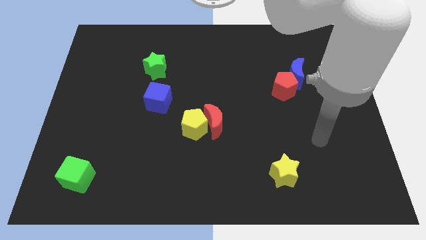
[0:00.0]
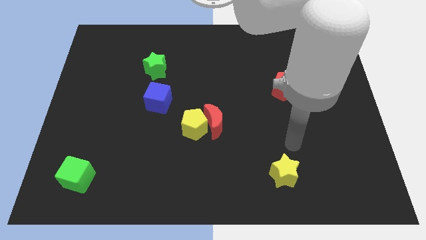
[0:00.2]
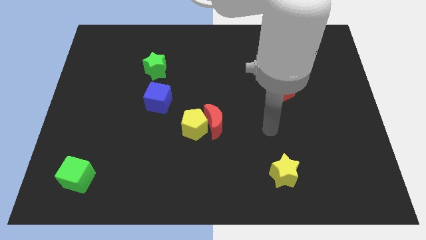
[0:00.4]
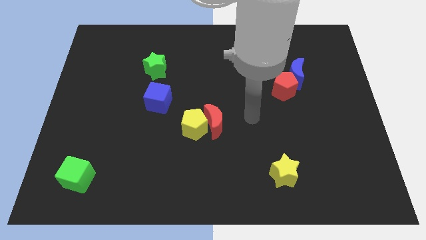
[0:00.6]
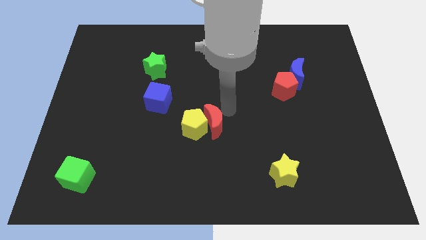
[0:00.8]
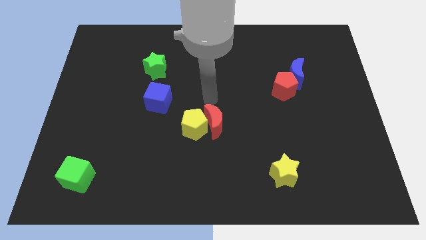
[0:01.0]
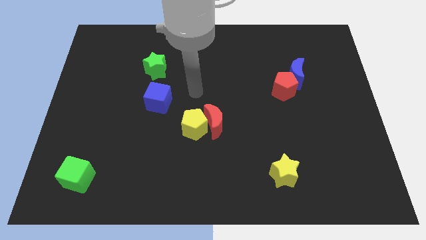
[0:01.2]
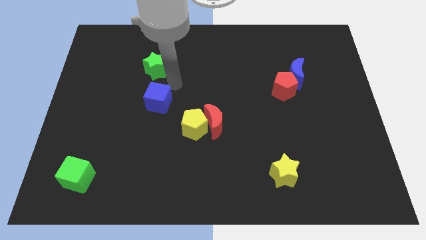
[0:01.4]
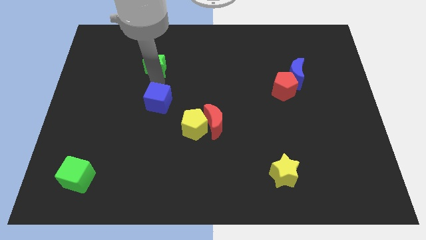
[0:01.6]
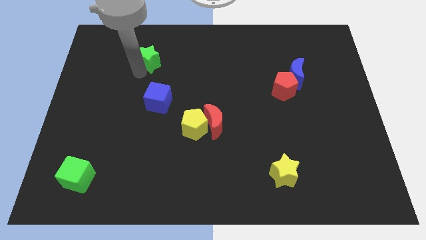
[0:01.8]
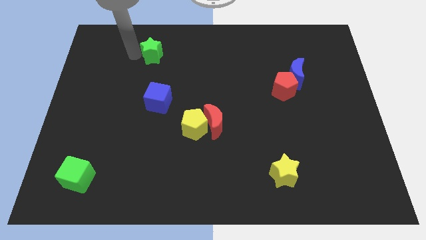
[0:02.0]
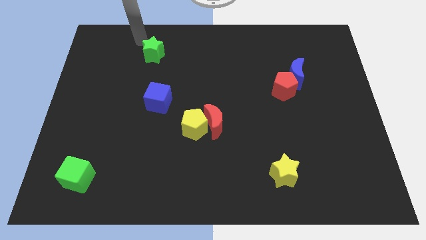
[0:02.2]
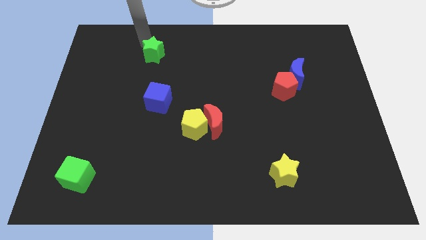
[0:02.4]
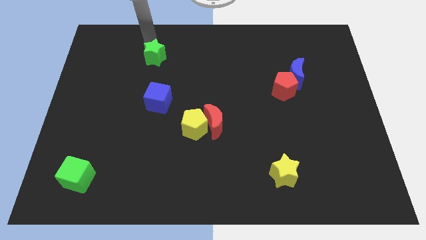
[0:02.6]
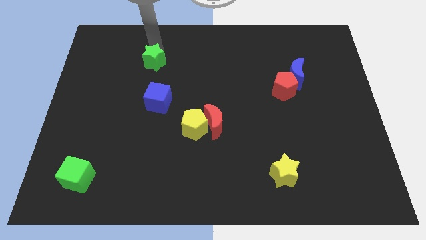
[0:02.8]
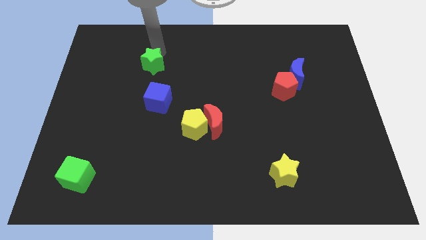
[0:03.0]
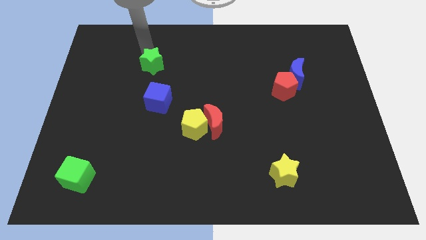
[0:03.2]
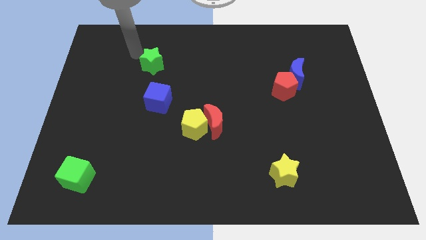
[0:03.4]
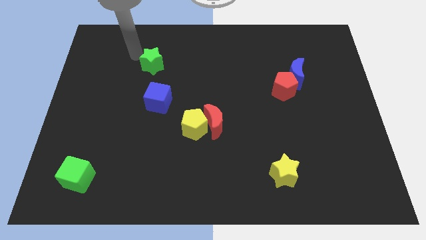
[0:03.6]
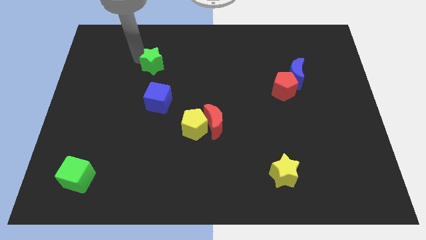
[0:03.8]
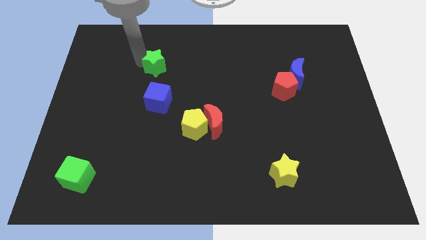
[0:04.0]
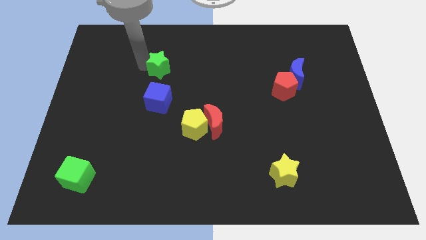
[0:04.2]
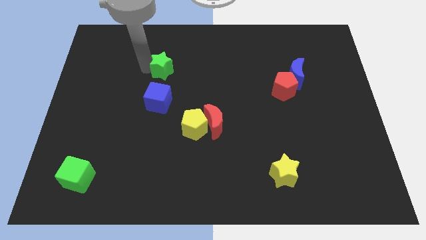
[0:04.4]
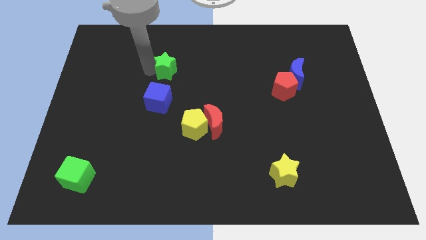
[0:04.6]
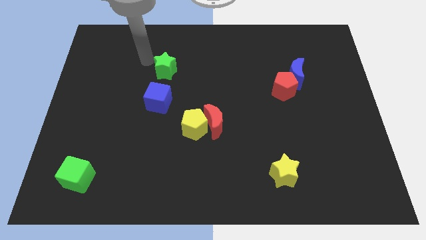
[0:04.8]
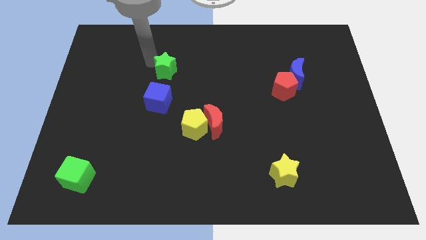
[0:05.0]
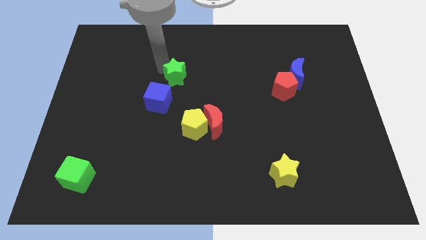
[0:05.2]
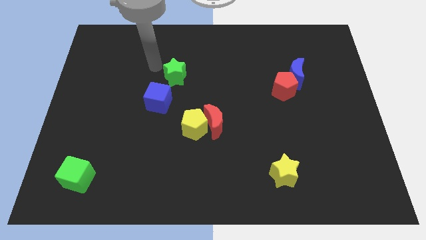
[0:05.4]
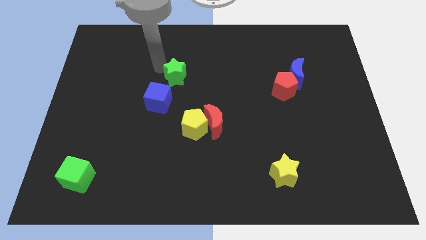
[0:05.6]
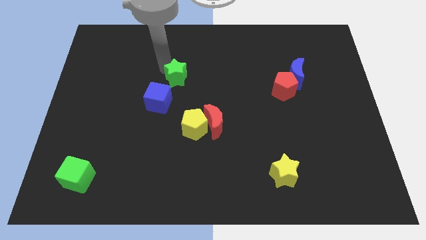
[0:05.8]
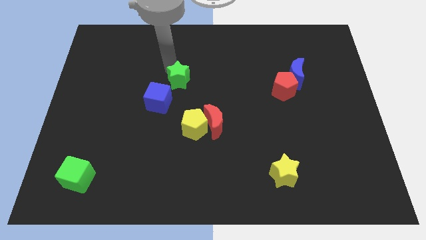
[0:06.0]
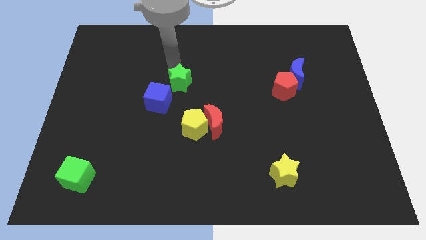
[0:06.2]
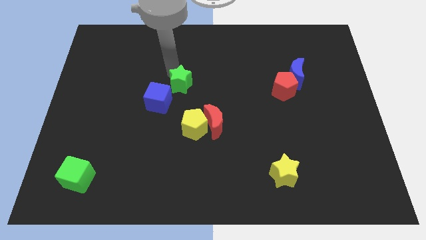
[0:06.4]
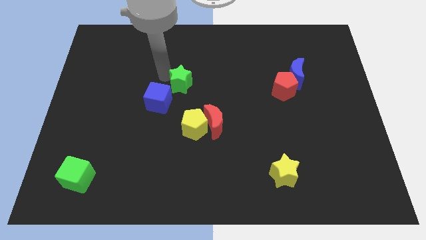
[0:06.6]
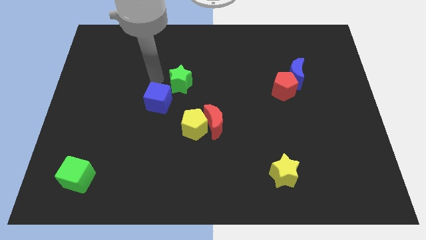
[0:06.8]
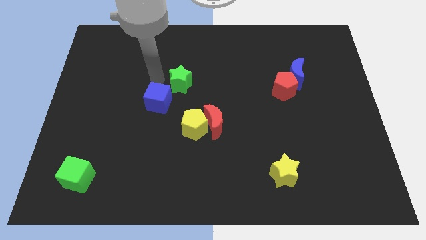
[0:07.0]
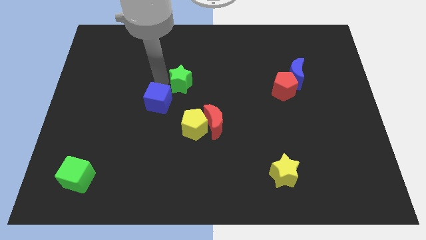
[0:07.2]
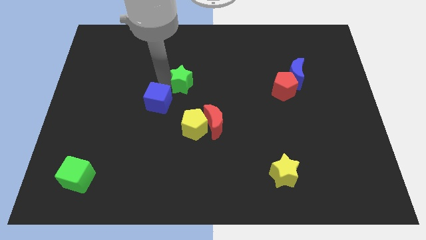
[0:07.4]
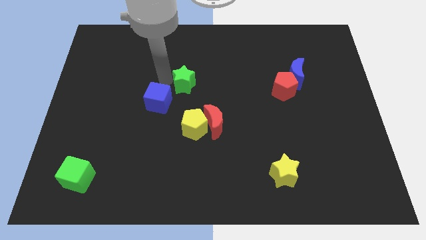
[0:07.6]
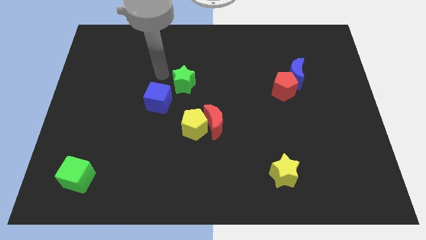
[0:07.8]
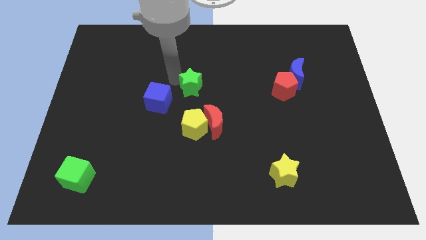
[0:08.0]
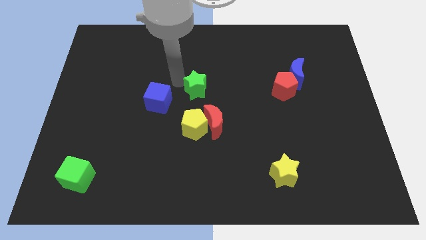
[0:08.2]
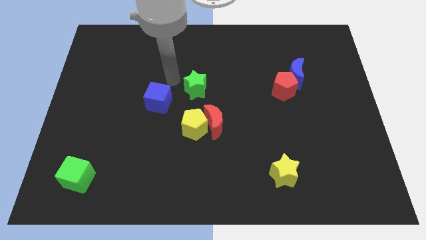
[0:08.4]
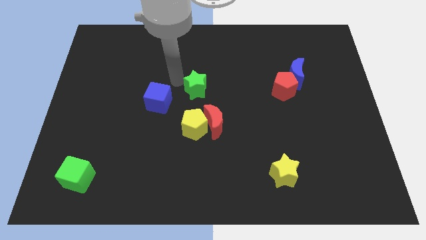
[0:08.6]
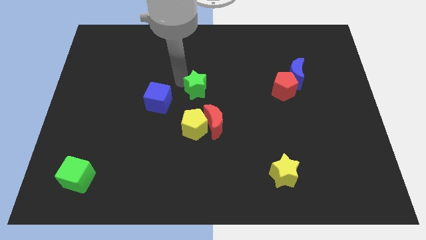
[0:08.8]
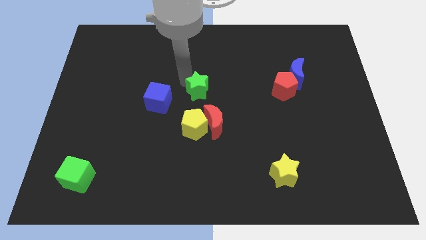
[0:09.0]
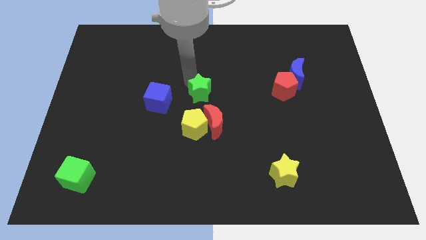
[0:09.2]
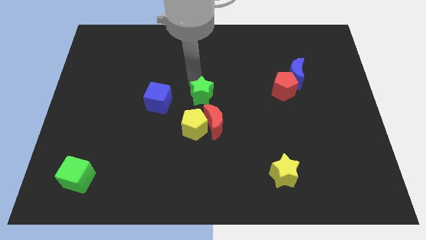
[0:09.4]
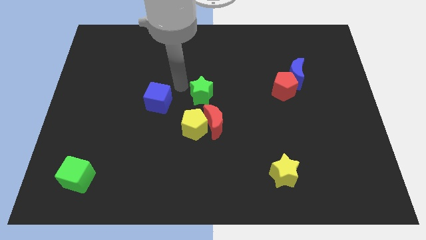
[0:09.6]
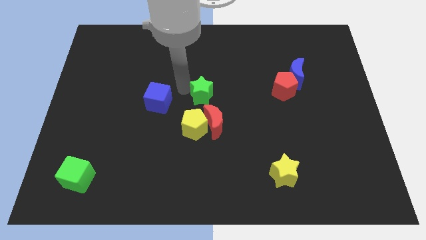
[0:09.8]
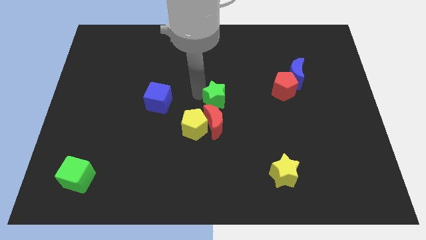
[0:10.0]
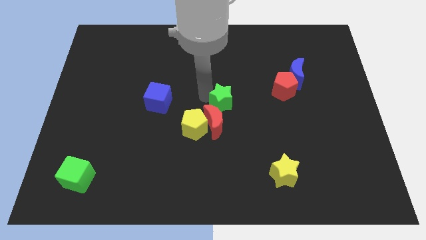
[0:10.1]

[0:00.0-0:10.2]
slide the green star to the top right of the red moon

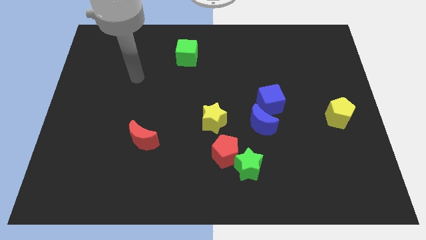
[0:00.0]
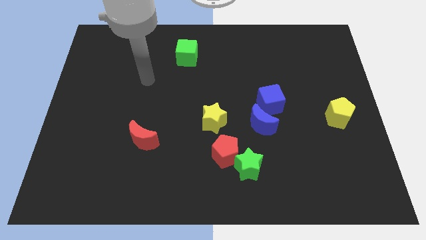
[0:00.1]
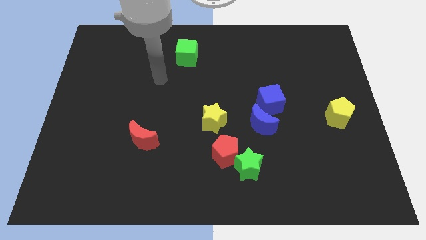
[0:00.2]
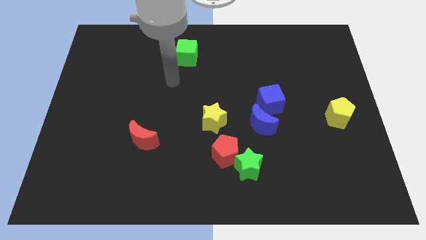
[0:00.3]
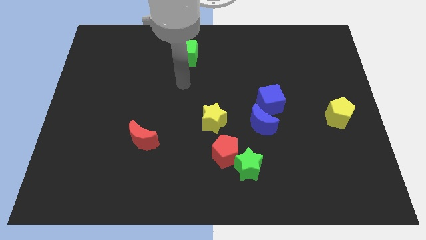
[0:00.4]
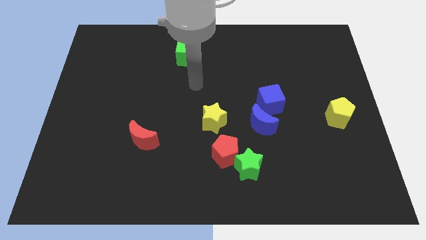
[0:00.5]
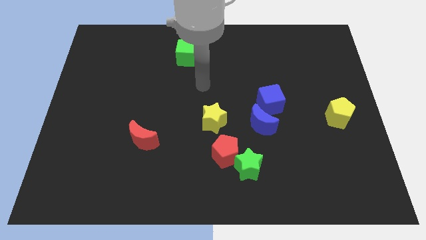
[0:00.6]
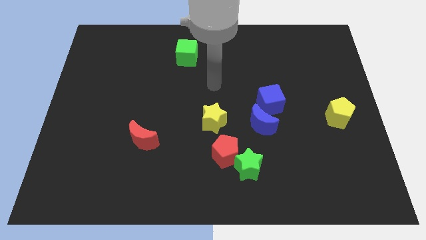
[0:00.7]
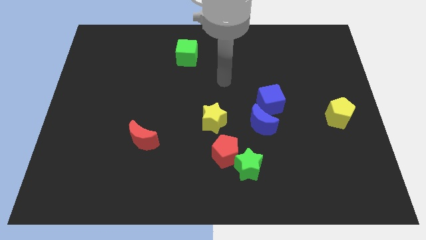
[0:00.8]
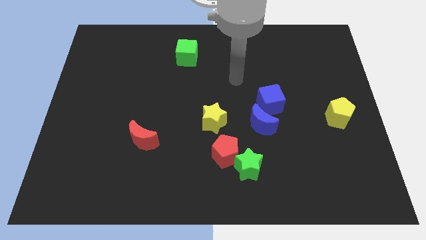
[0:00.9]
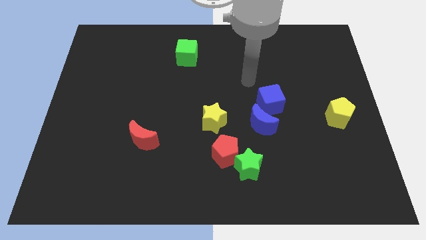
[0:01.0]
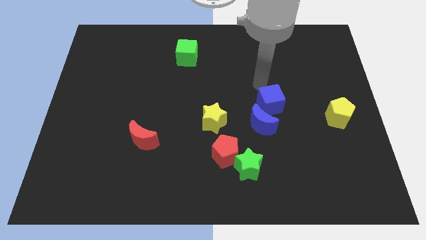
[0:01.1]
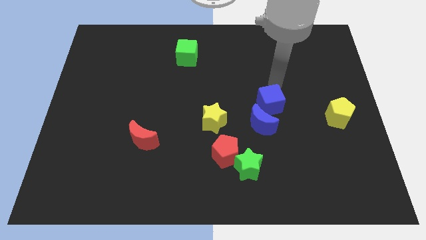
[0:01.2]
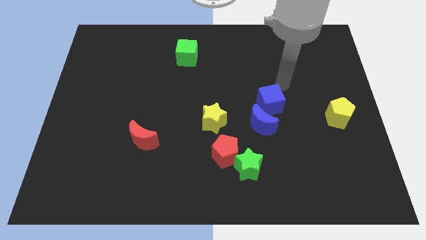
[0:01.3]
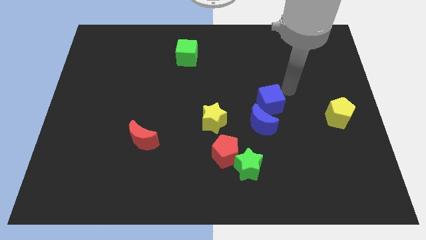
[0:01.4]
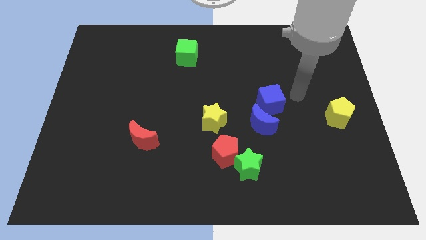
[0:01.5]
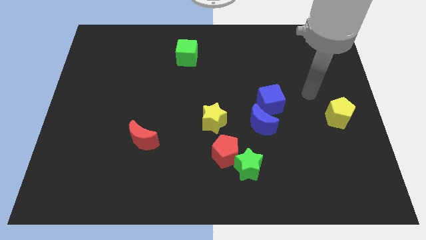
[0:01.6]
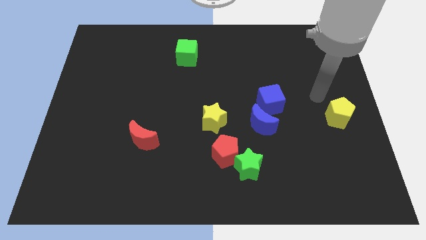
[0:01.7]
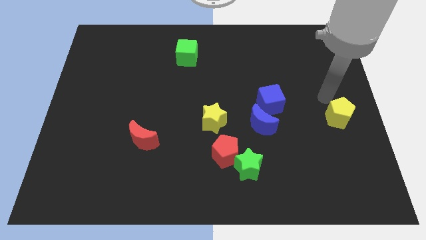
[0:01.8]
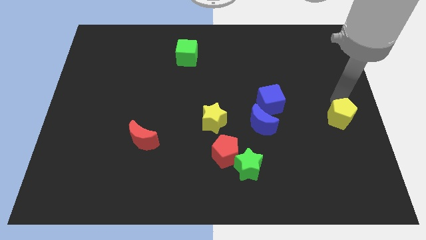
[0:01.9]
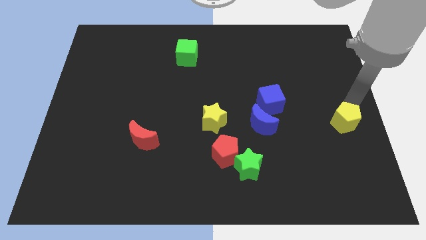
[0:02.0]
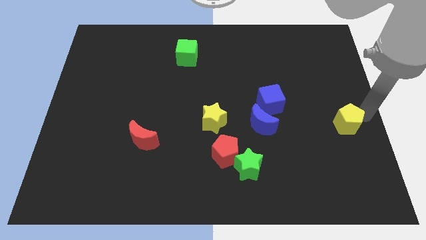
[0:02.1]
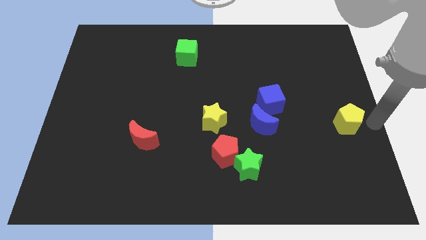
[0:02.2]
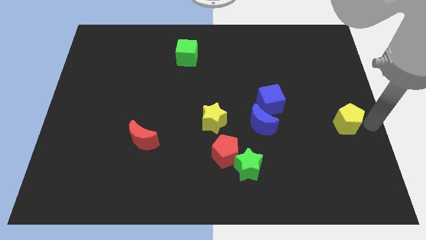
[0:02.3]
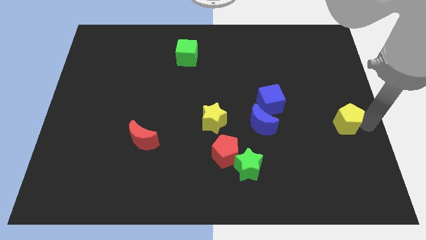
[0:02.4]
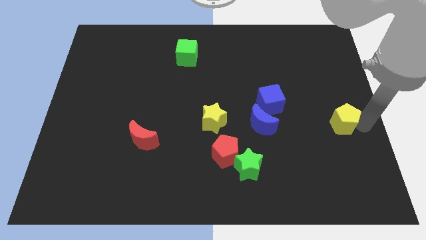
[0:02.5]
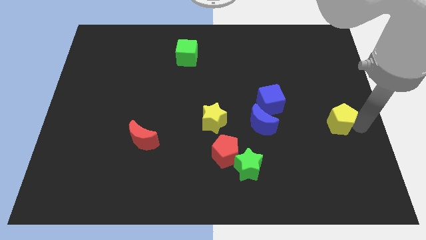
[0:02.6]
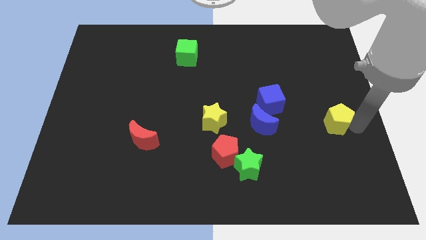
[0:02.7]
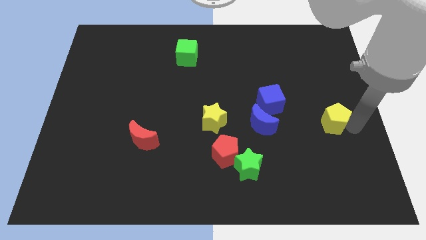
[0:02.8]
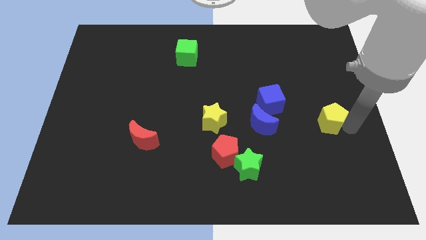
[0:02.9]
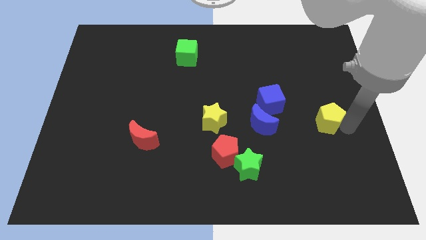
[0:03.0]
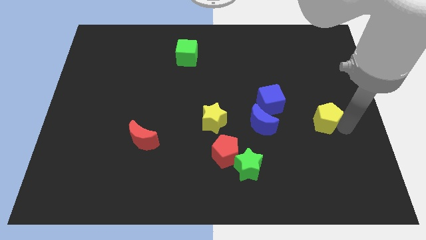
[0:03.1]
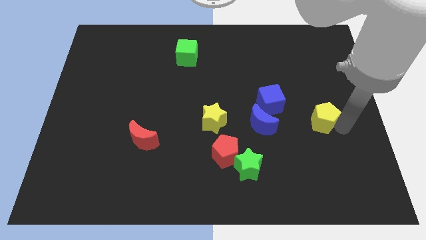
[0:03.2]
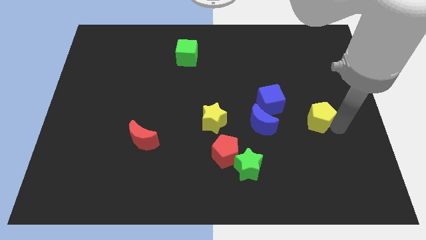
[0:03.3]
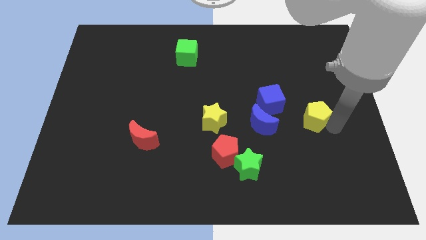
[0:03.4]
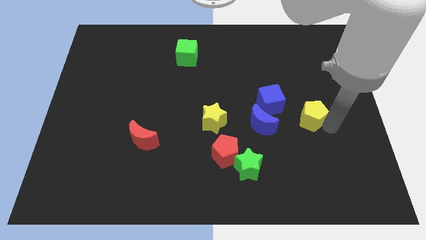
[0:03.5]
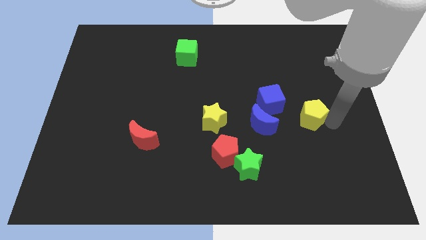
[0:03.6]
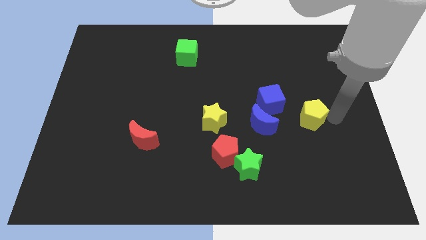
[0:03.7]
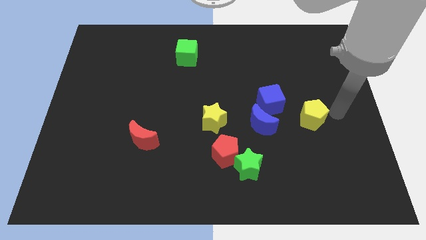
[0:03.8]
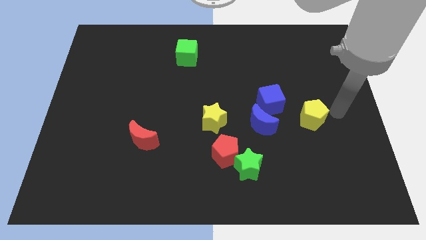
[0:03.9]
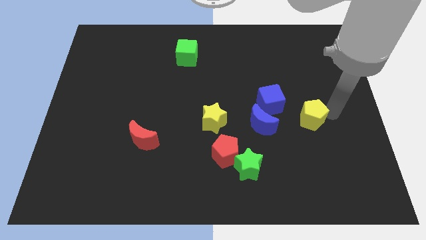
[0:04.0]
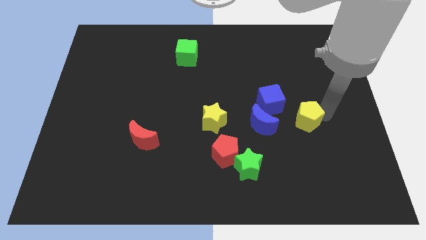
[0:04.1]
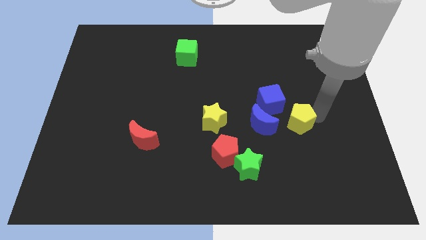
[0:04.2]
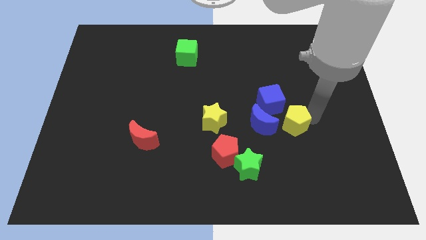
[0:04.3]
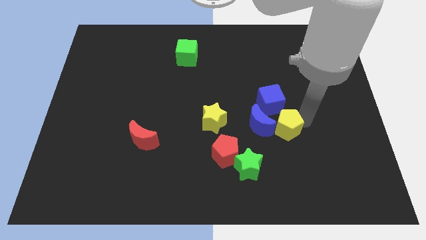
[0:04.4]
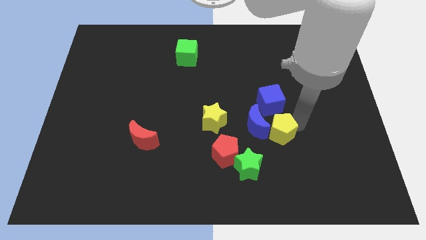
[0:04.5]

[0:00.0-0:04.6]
push the yellow pentagon to the right of the yellow star
